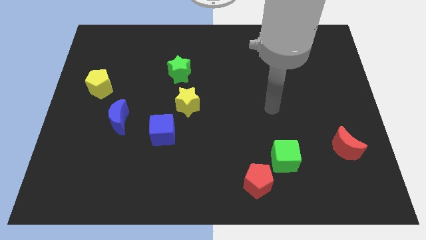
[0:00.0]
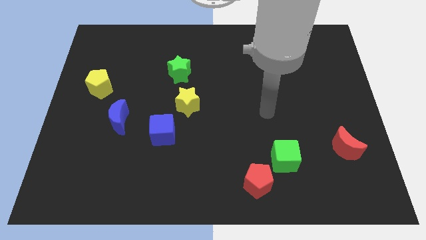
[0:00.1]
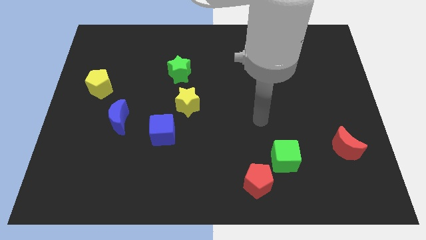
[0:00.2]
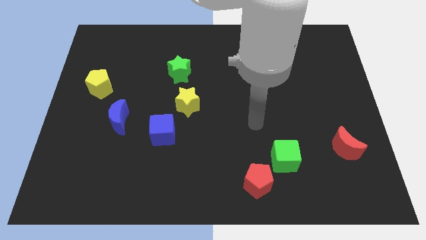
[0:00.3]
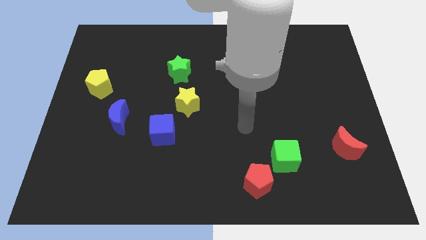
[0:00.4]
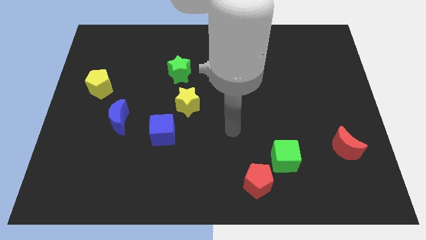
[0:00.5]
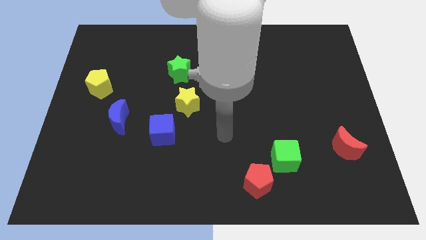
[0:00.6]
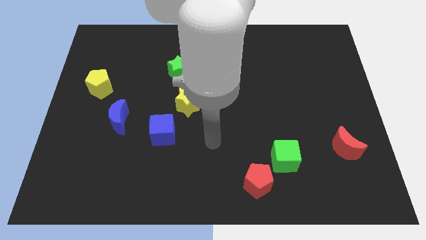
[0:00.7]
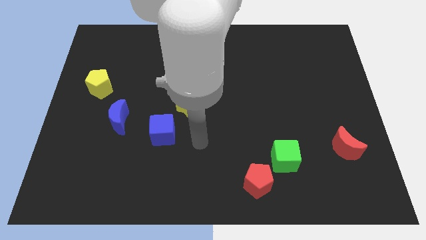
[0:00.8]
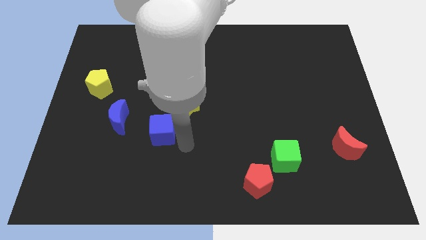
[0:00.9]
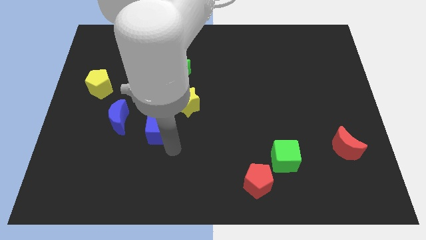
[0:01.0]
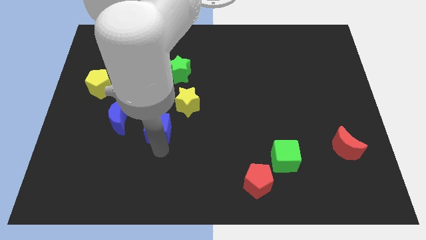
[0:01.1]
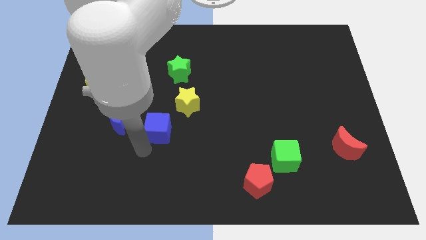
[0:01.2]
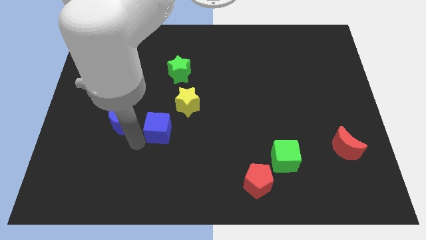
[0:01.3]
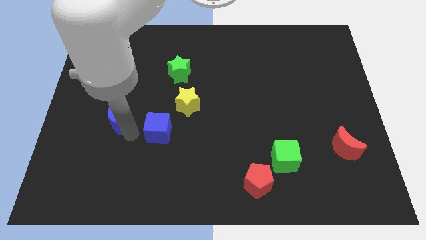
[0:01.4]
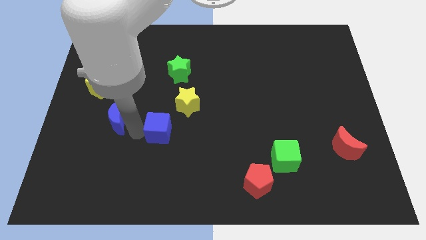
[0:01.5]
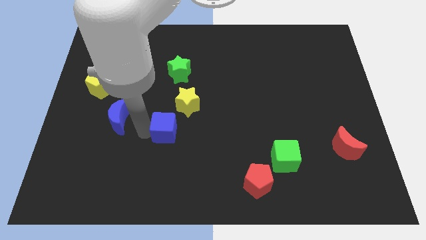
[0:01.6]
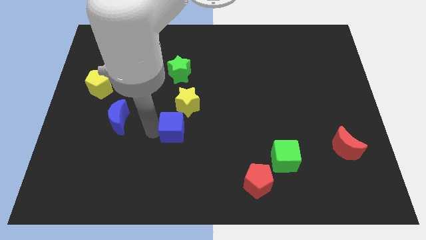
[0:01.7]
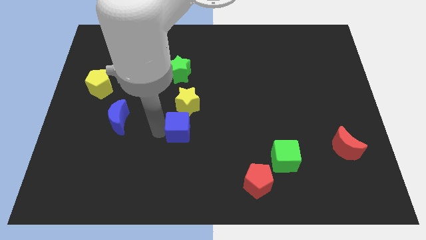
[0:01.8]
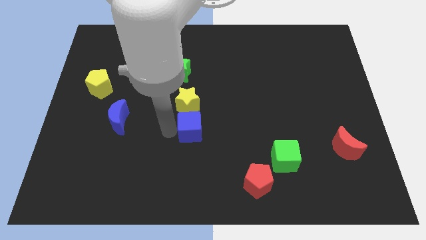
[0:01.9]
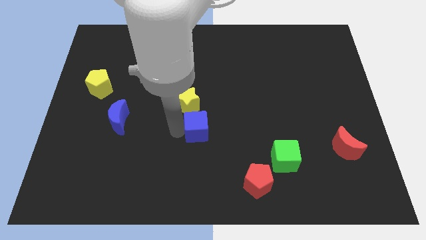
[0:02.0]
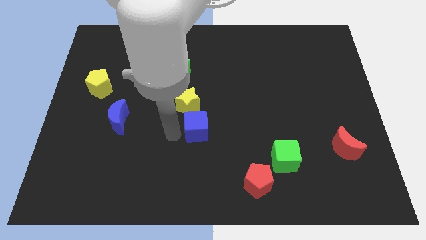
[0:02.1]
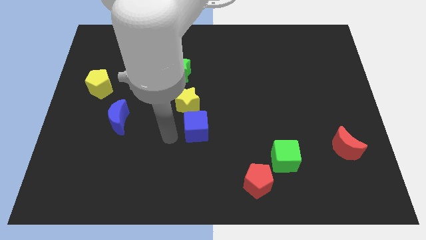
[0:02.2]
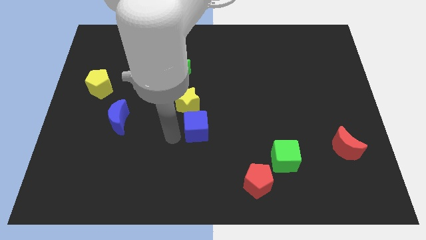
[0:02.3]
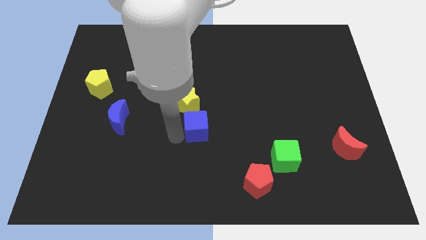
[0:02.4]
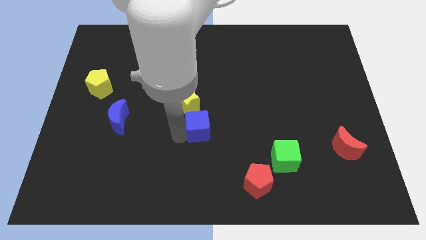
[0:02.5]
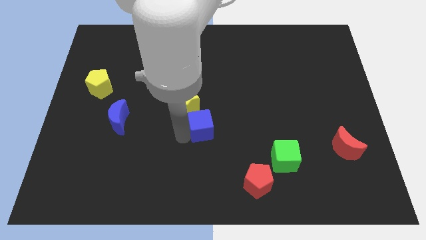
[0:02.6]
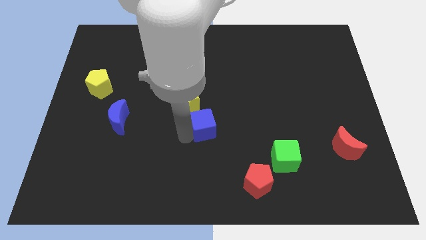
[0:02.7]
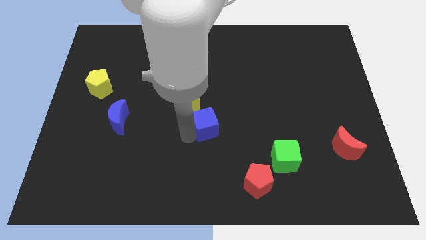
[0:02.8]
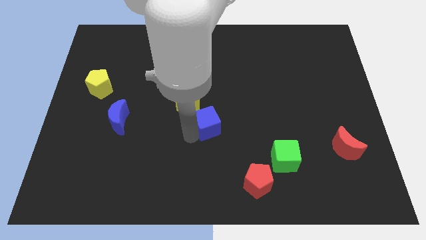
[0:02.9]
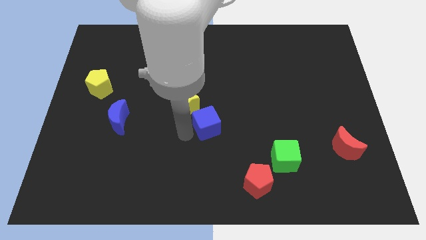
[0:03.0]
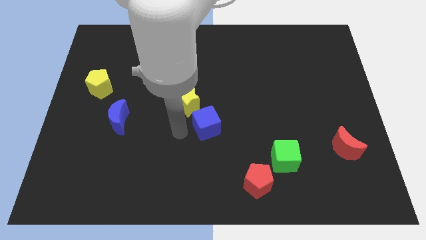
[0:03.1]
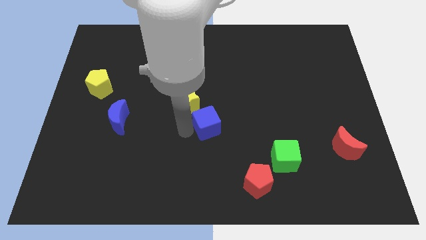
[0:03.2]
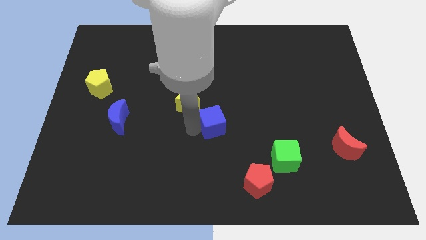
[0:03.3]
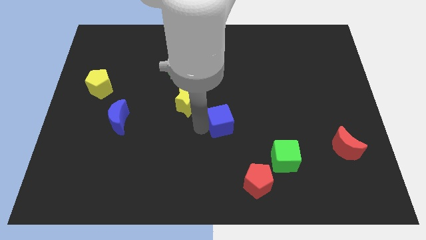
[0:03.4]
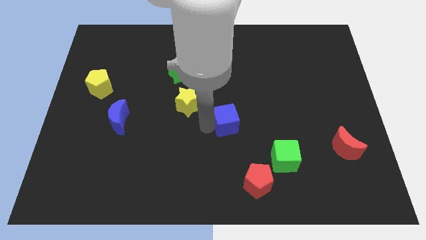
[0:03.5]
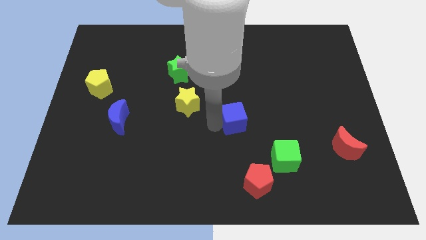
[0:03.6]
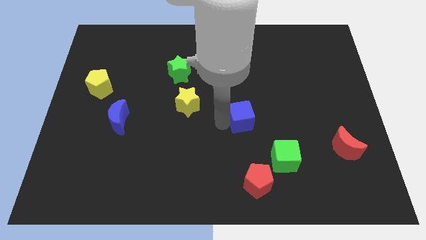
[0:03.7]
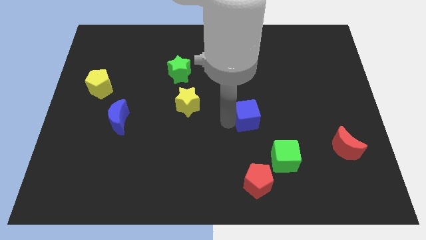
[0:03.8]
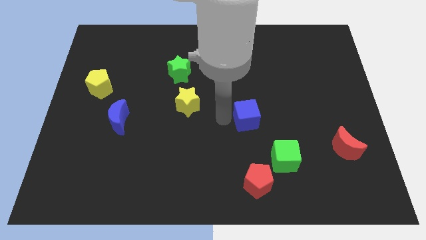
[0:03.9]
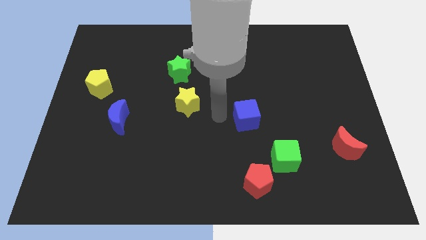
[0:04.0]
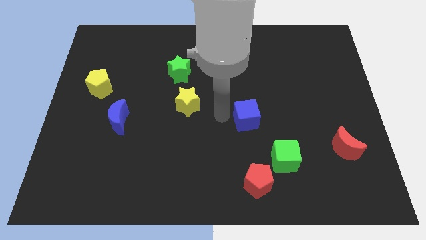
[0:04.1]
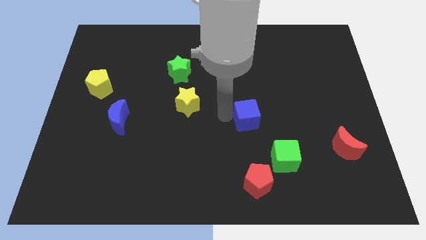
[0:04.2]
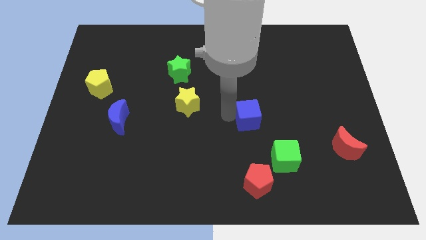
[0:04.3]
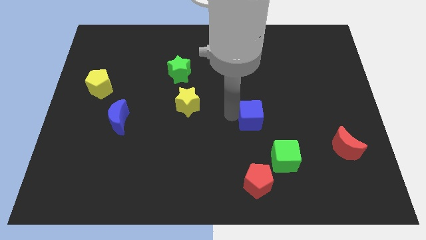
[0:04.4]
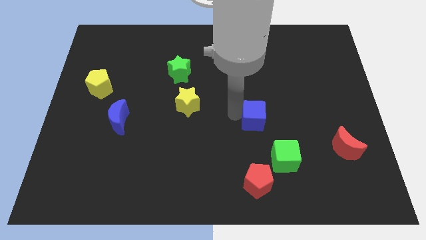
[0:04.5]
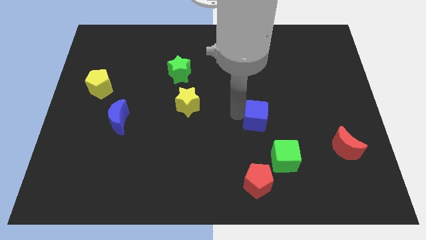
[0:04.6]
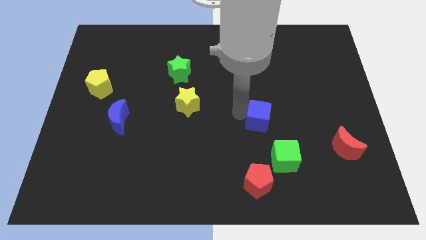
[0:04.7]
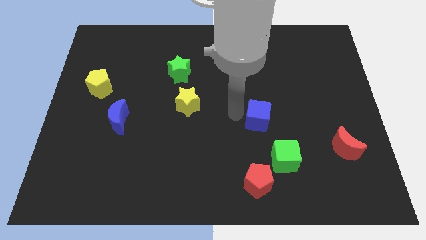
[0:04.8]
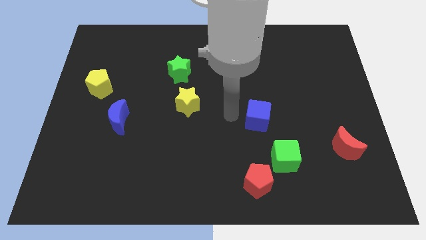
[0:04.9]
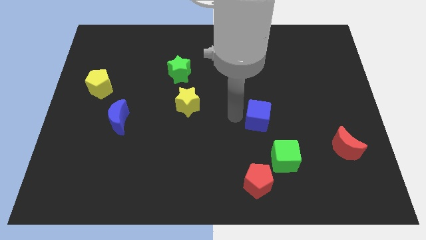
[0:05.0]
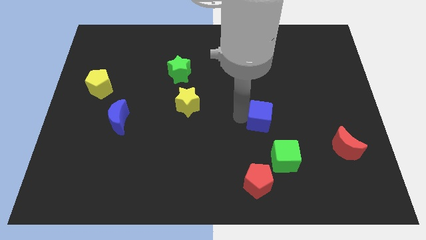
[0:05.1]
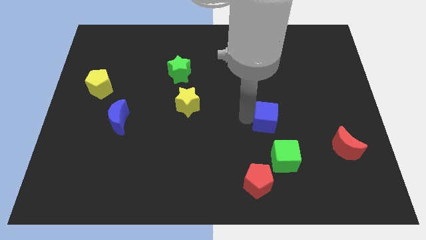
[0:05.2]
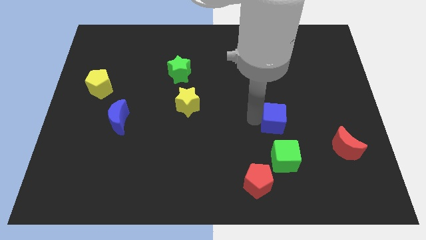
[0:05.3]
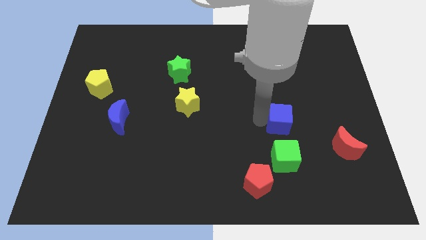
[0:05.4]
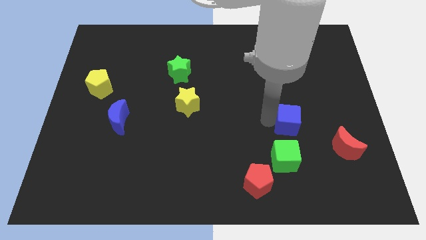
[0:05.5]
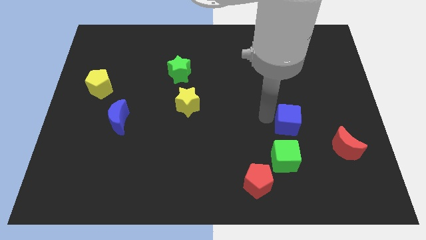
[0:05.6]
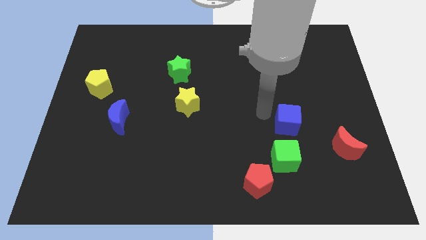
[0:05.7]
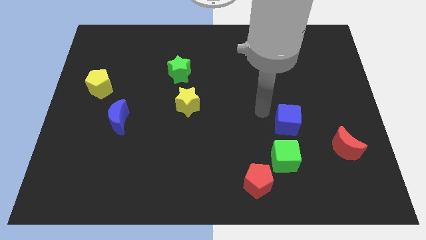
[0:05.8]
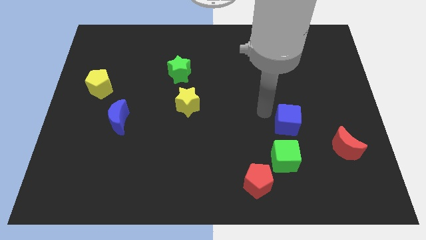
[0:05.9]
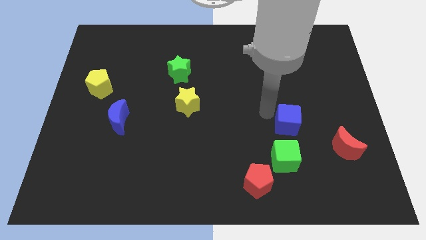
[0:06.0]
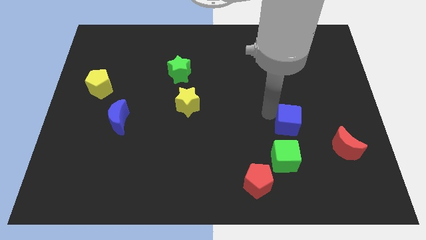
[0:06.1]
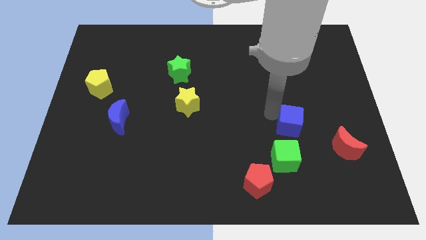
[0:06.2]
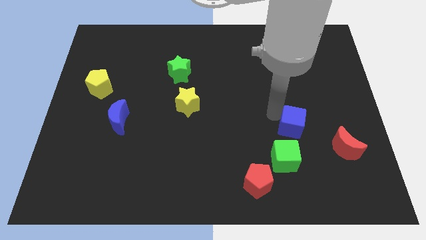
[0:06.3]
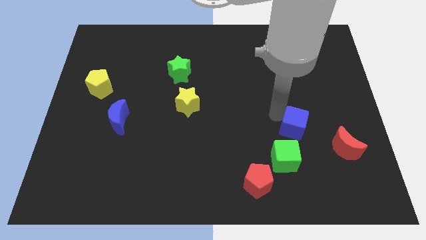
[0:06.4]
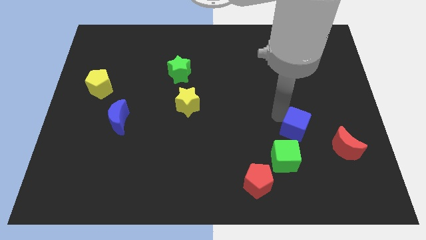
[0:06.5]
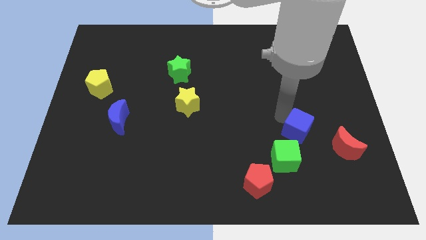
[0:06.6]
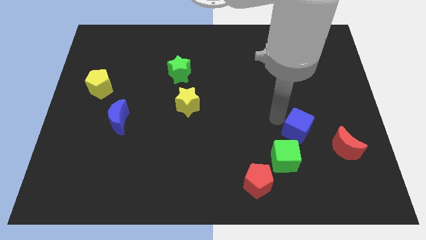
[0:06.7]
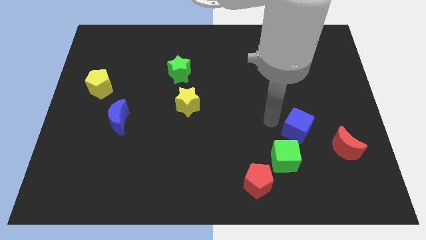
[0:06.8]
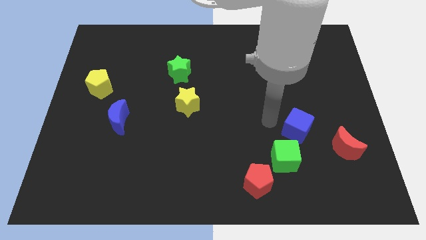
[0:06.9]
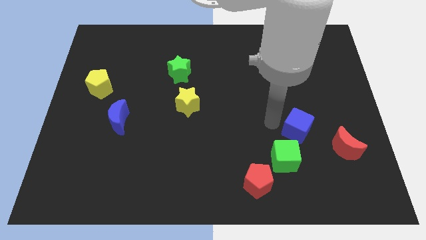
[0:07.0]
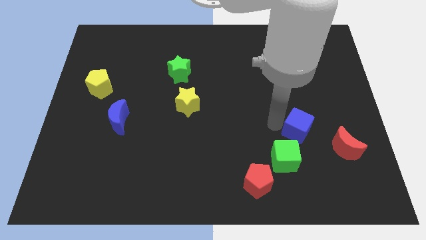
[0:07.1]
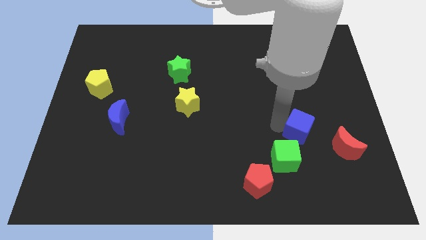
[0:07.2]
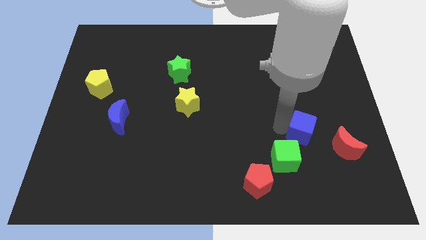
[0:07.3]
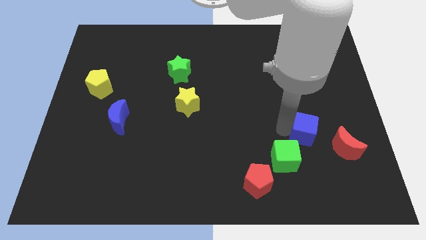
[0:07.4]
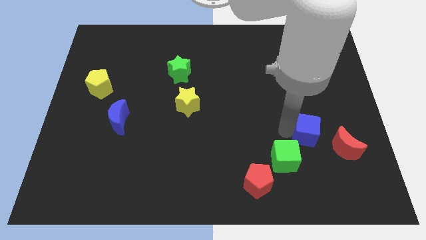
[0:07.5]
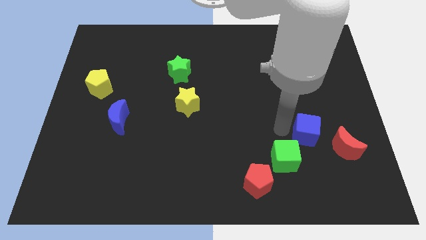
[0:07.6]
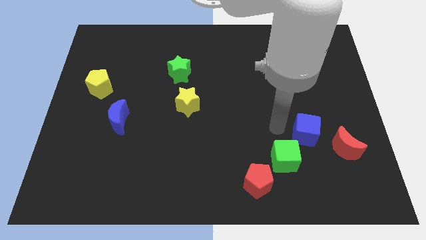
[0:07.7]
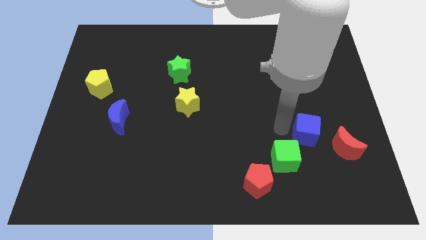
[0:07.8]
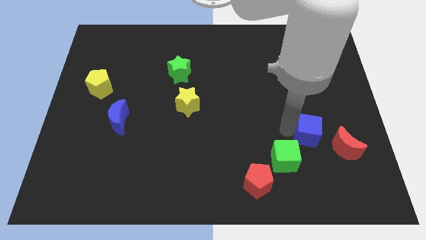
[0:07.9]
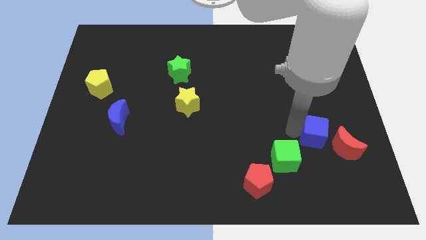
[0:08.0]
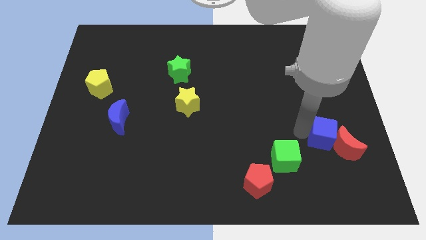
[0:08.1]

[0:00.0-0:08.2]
move the blue cube to the red moon
